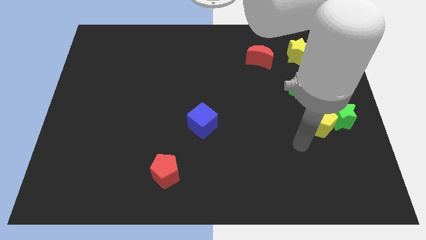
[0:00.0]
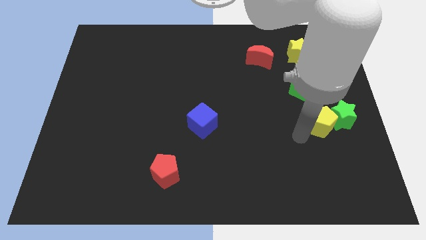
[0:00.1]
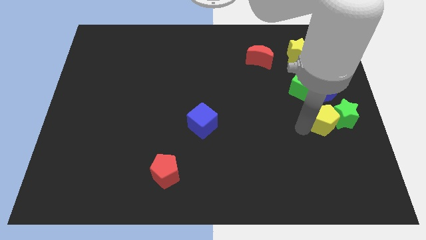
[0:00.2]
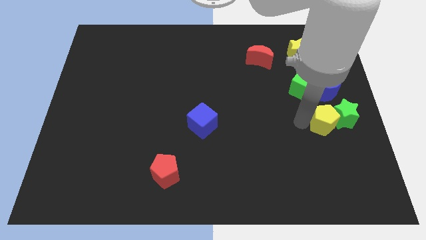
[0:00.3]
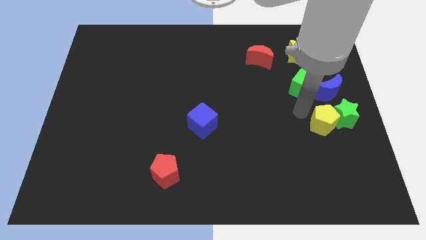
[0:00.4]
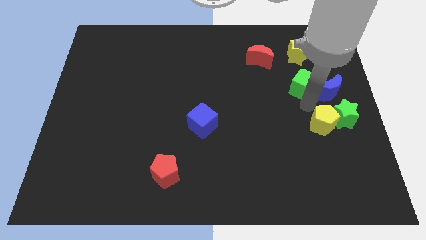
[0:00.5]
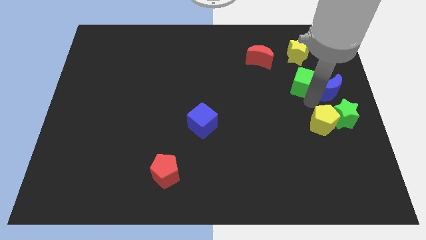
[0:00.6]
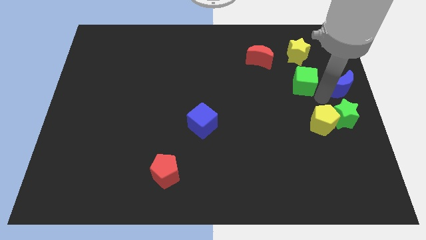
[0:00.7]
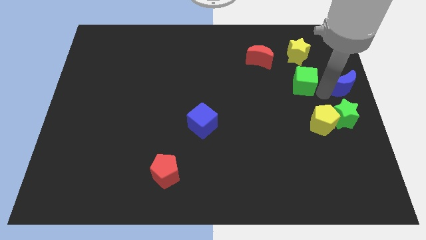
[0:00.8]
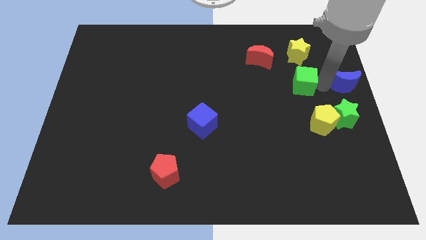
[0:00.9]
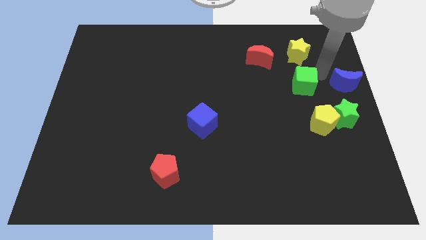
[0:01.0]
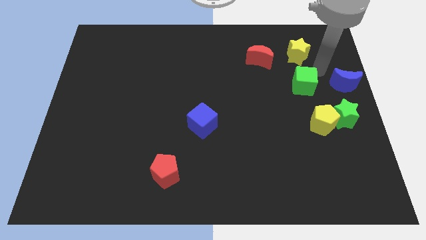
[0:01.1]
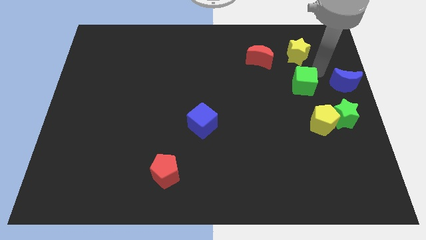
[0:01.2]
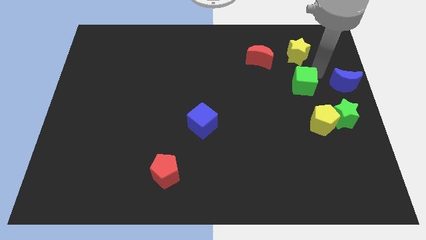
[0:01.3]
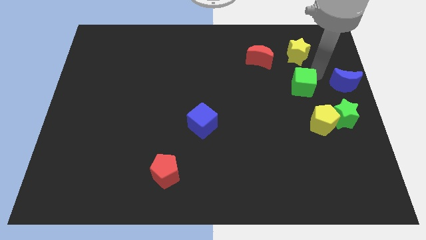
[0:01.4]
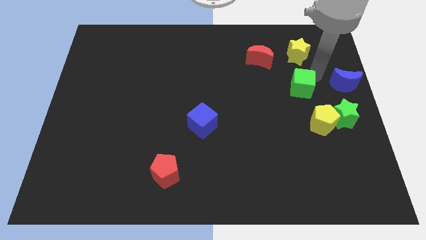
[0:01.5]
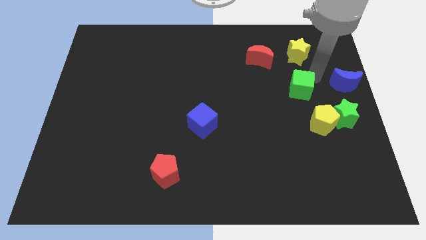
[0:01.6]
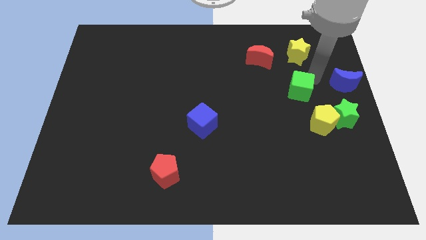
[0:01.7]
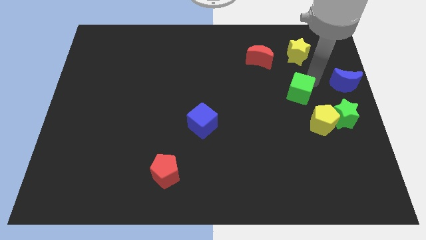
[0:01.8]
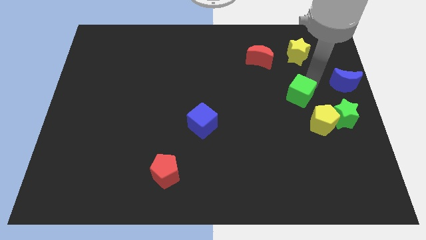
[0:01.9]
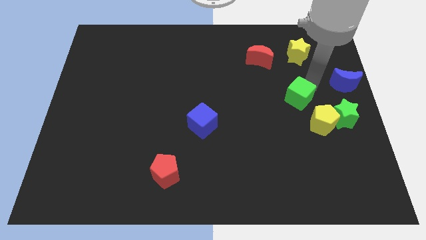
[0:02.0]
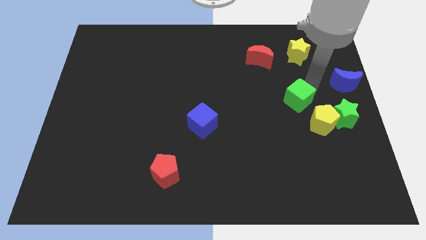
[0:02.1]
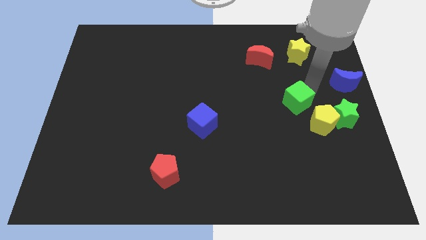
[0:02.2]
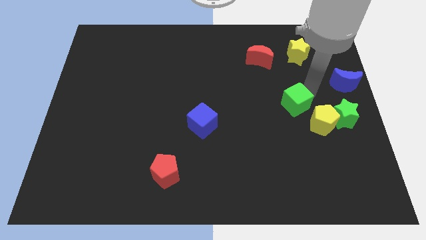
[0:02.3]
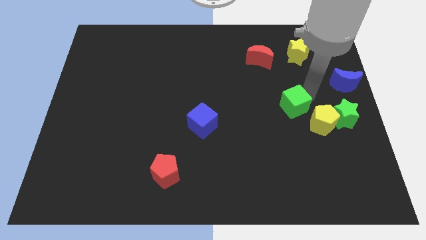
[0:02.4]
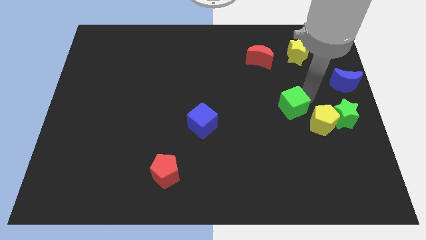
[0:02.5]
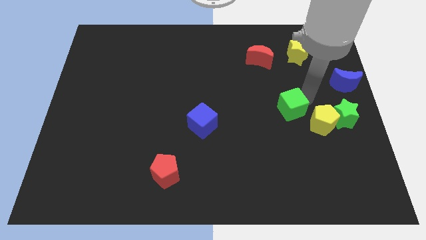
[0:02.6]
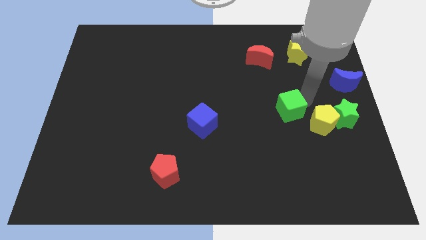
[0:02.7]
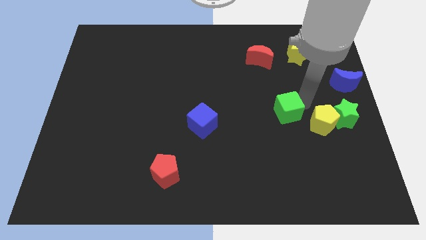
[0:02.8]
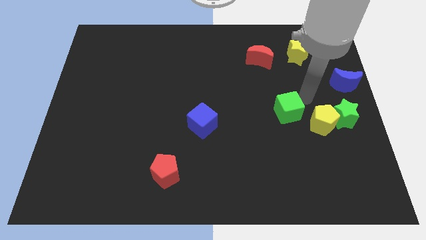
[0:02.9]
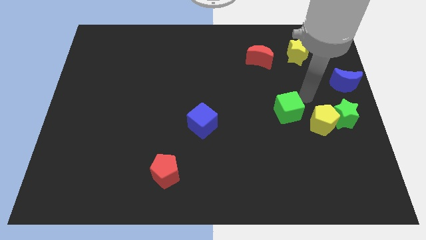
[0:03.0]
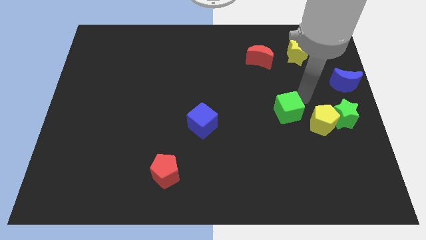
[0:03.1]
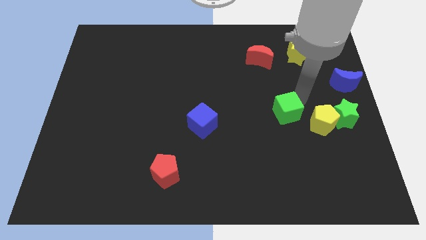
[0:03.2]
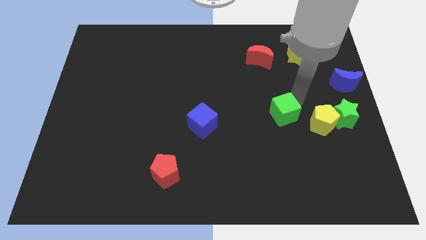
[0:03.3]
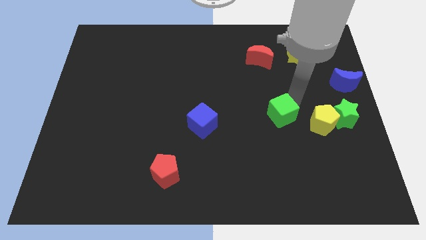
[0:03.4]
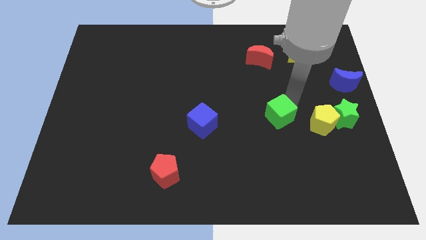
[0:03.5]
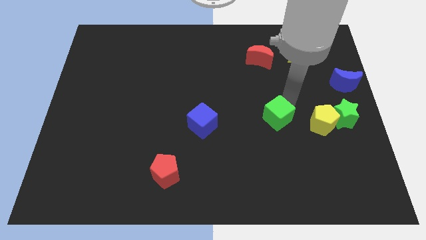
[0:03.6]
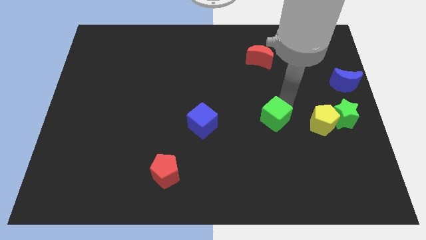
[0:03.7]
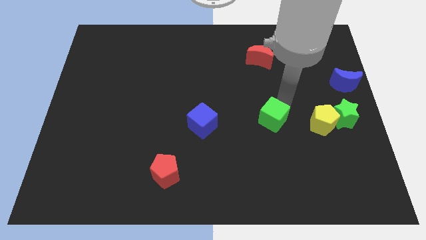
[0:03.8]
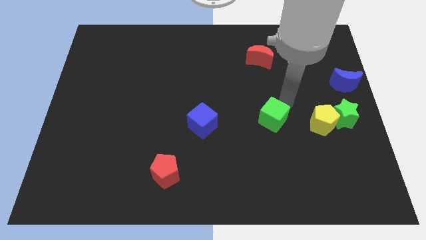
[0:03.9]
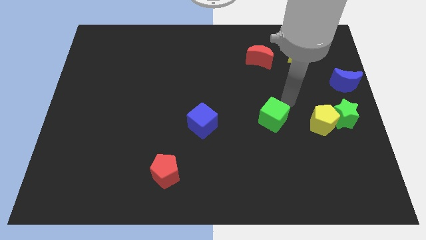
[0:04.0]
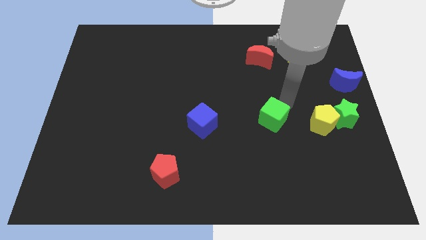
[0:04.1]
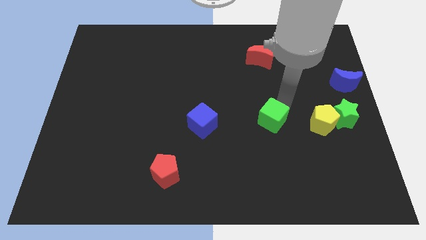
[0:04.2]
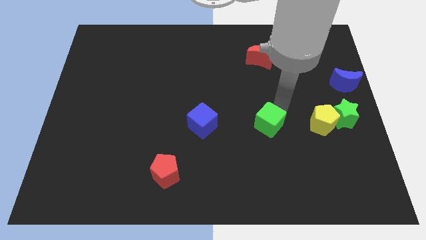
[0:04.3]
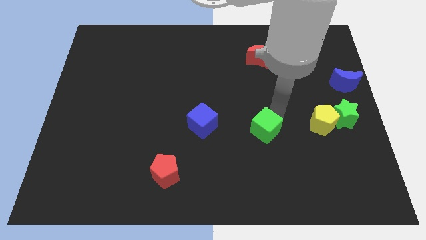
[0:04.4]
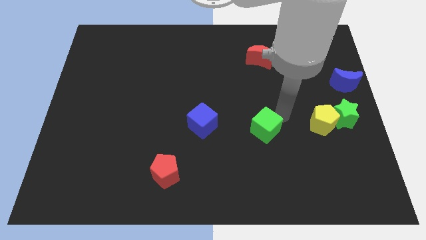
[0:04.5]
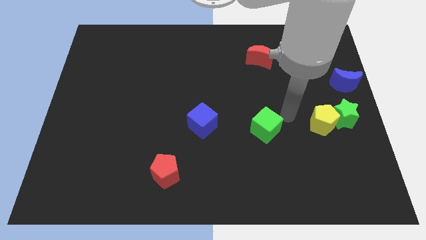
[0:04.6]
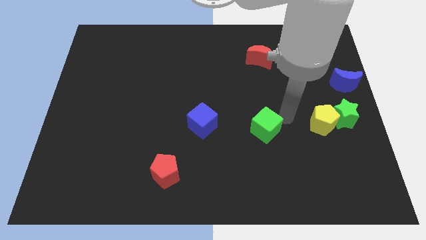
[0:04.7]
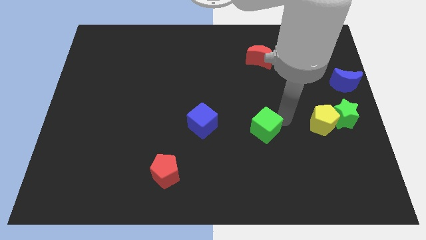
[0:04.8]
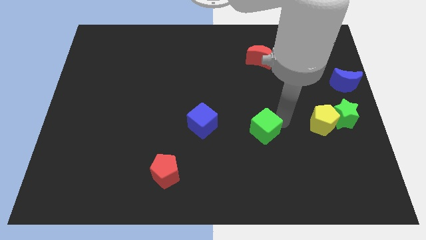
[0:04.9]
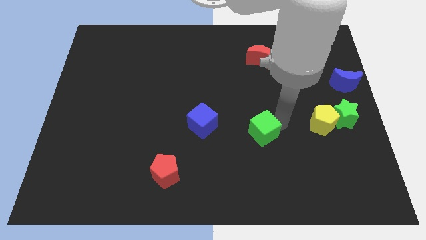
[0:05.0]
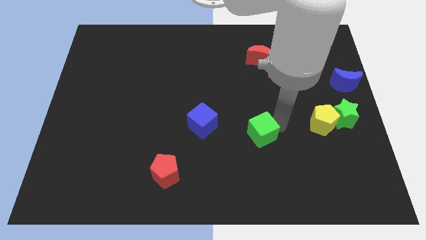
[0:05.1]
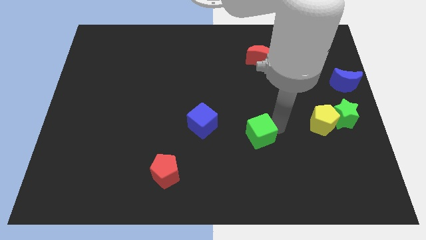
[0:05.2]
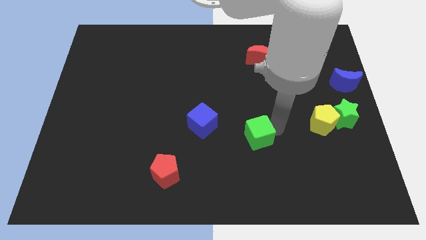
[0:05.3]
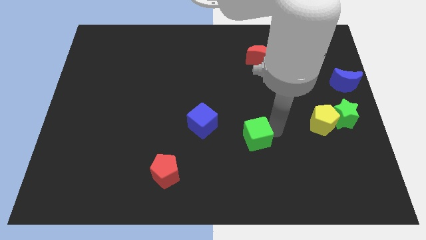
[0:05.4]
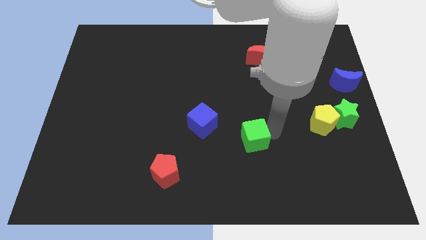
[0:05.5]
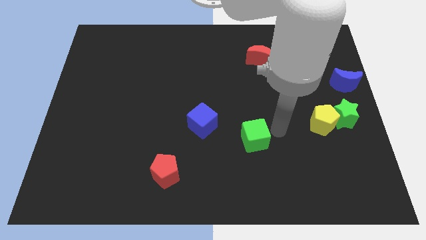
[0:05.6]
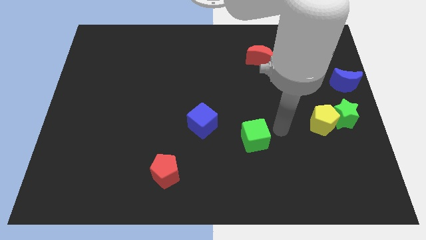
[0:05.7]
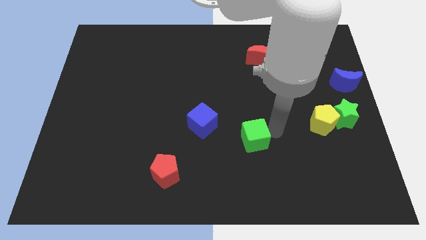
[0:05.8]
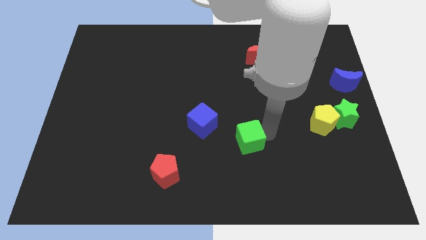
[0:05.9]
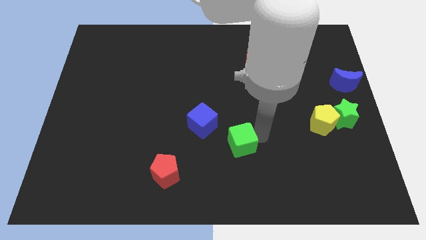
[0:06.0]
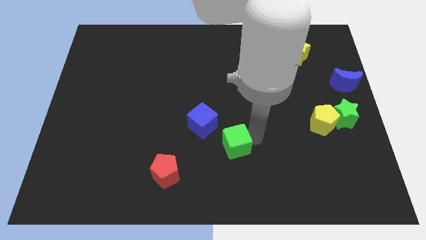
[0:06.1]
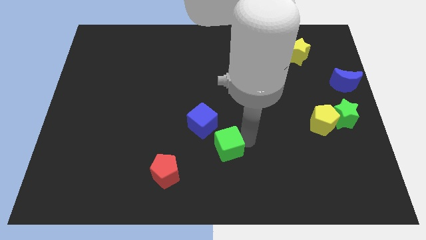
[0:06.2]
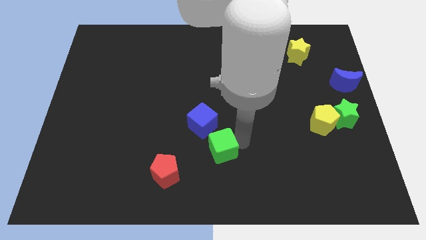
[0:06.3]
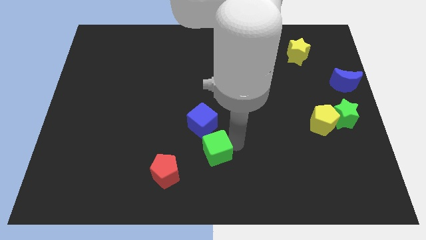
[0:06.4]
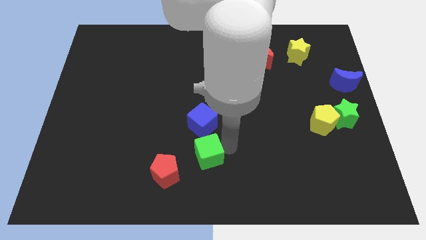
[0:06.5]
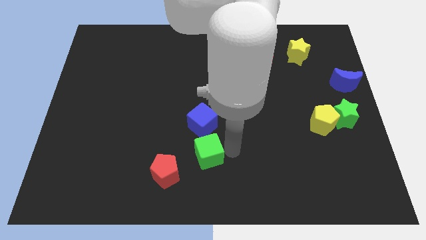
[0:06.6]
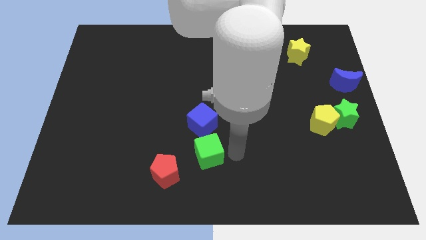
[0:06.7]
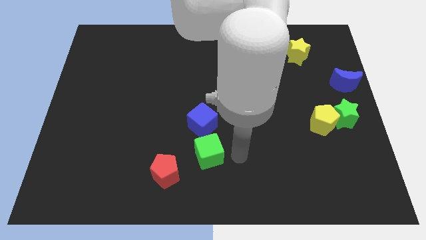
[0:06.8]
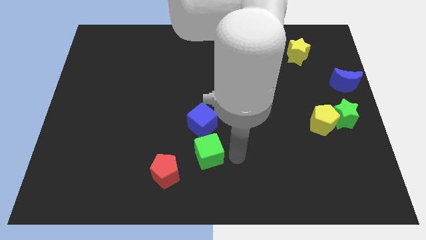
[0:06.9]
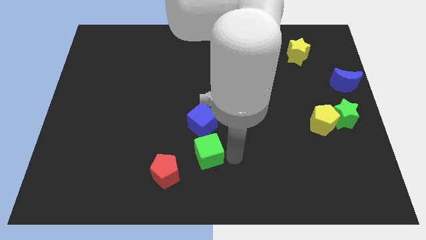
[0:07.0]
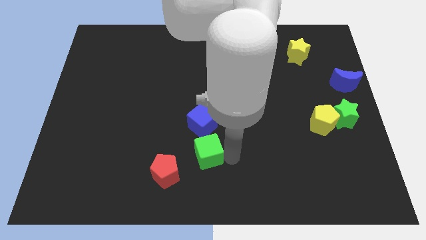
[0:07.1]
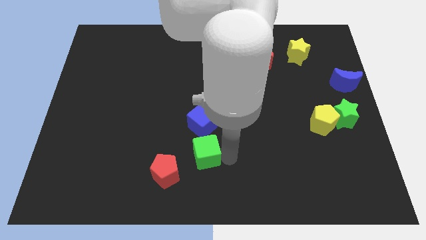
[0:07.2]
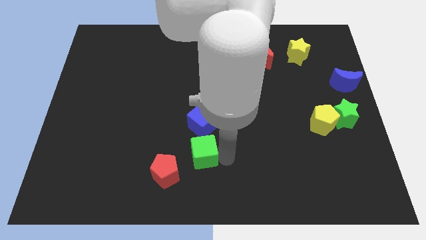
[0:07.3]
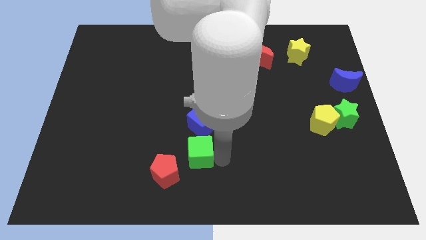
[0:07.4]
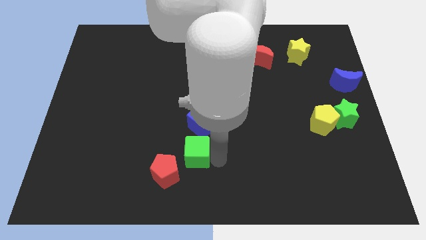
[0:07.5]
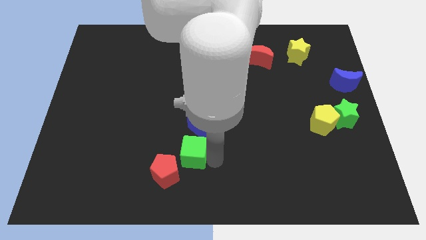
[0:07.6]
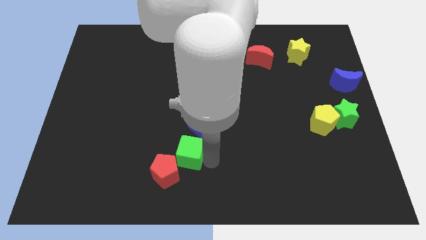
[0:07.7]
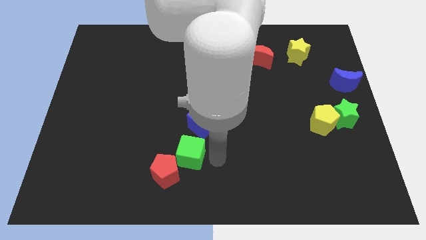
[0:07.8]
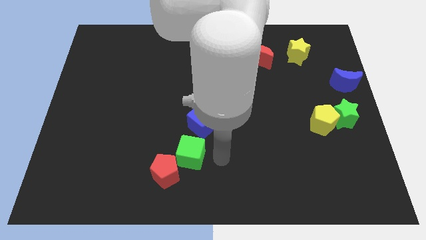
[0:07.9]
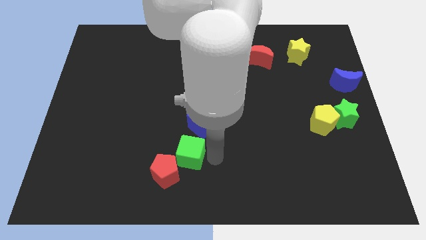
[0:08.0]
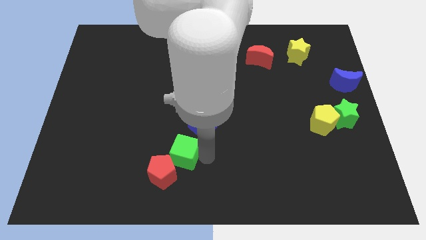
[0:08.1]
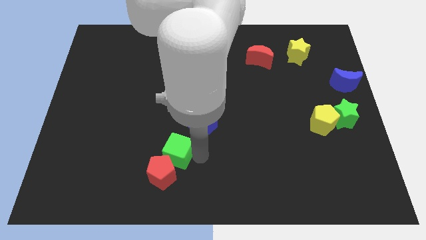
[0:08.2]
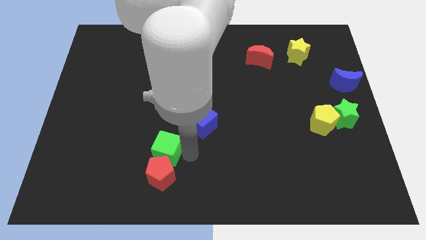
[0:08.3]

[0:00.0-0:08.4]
move the green cube to the top left side of the red pentagon

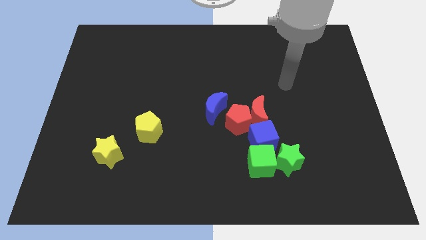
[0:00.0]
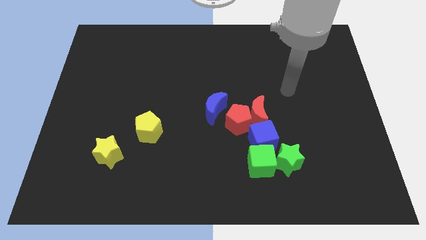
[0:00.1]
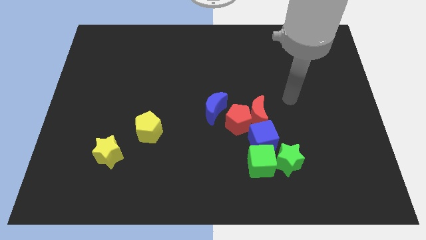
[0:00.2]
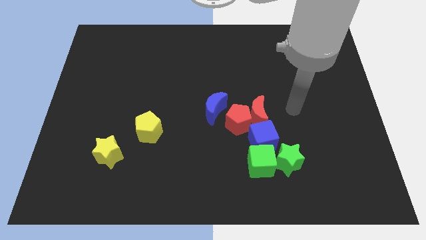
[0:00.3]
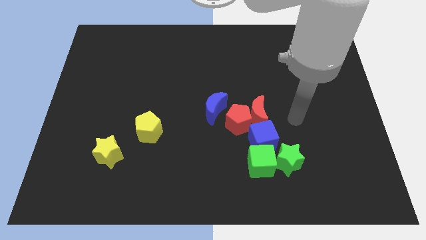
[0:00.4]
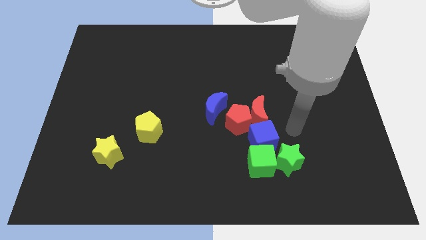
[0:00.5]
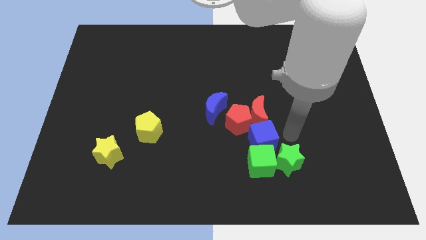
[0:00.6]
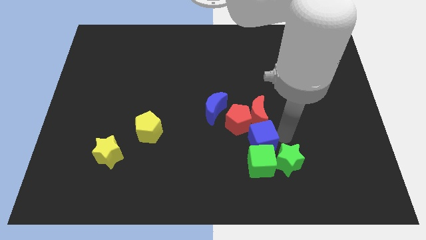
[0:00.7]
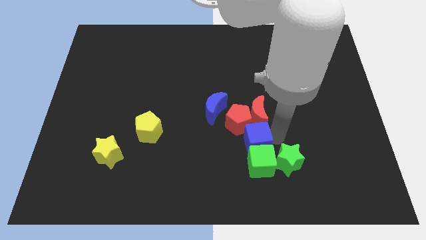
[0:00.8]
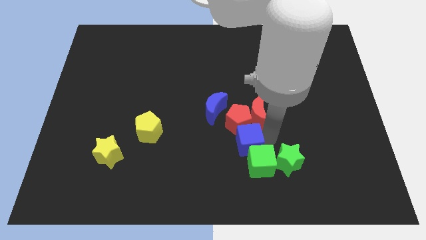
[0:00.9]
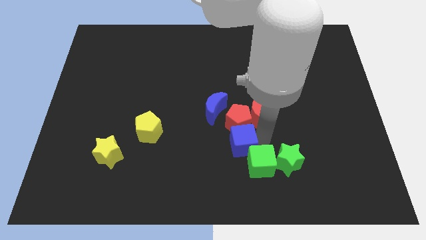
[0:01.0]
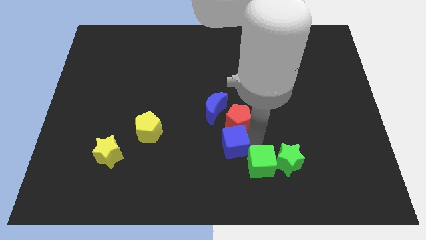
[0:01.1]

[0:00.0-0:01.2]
move the blue cube to the bottom of the blue moon
